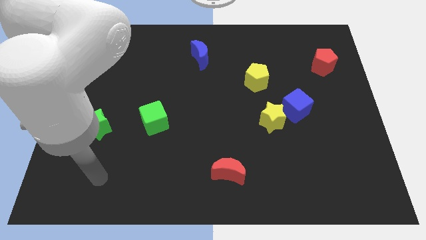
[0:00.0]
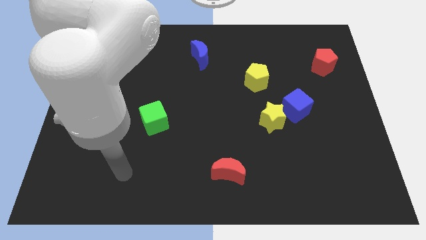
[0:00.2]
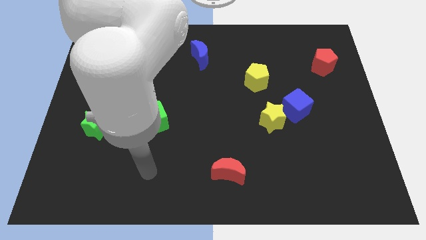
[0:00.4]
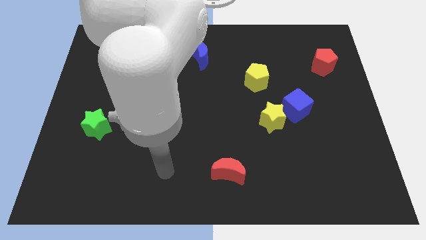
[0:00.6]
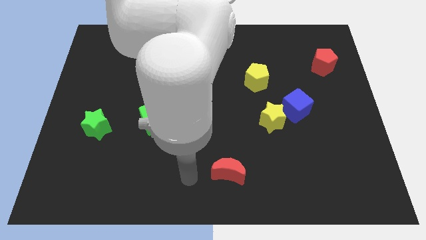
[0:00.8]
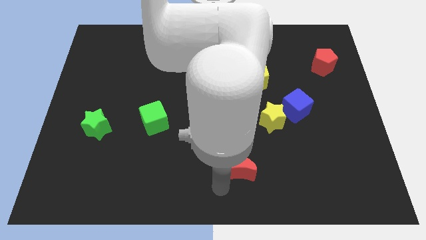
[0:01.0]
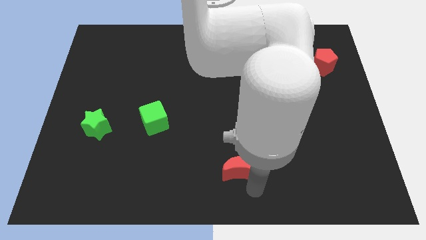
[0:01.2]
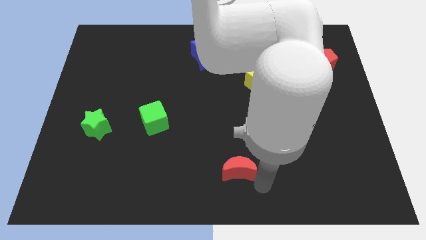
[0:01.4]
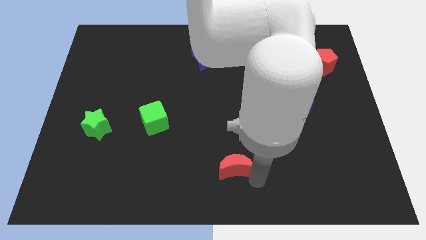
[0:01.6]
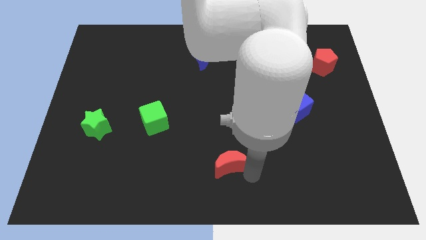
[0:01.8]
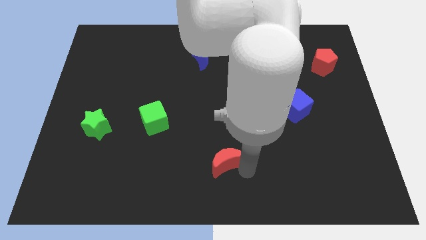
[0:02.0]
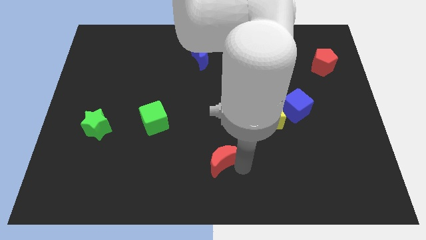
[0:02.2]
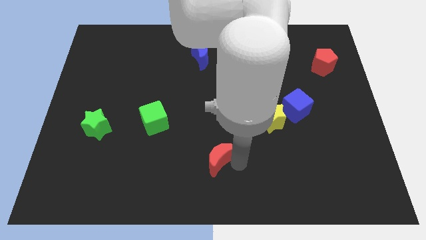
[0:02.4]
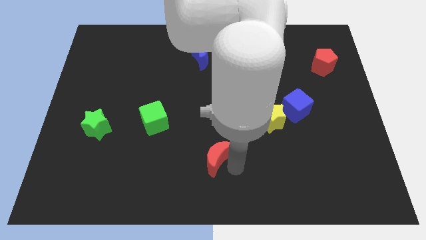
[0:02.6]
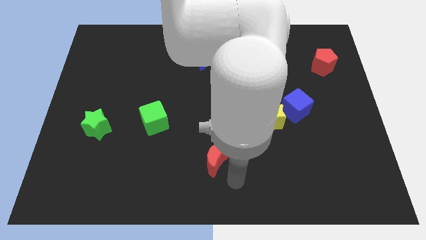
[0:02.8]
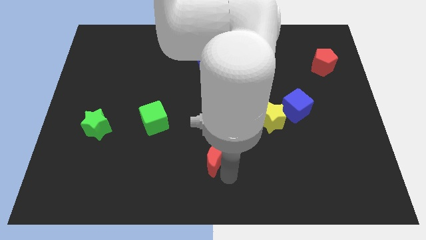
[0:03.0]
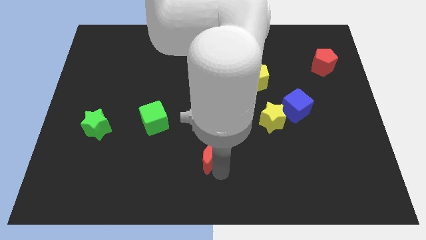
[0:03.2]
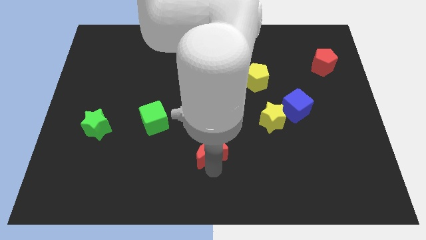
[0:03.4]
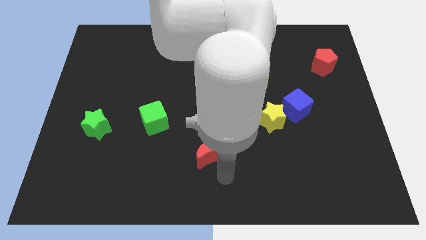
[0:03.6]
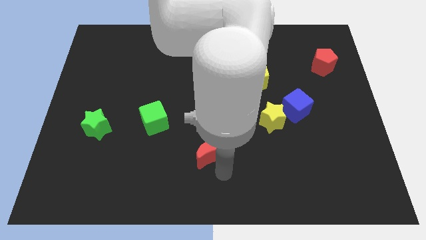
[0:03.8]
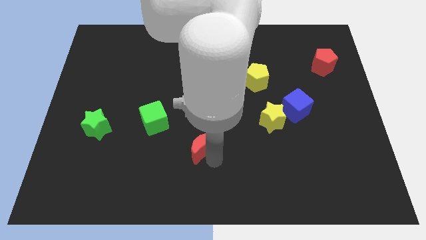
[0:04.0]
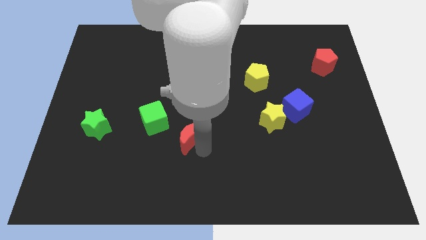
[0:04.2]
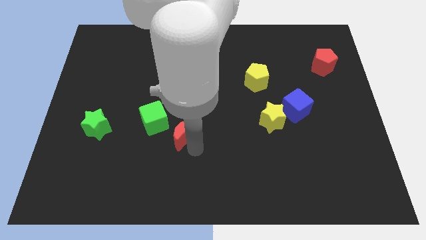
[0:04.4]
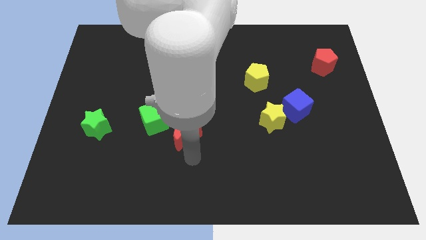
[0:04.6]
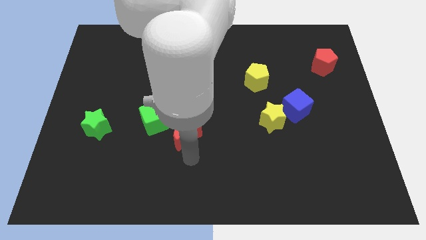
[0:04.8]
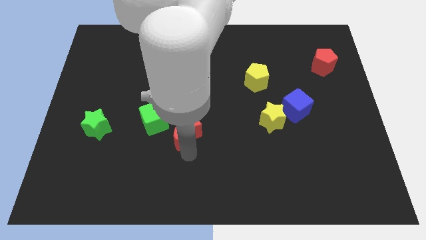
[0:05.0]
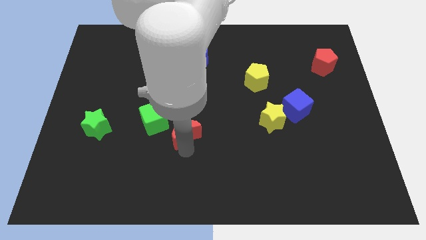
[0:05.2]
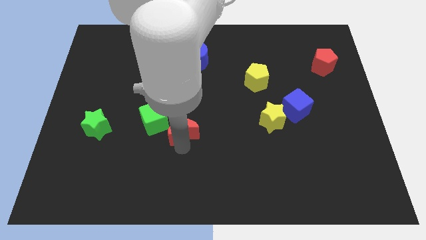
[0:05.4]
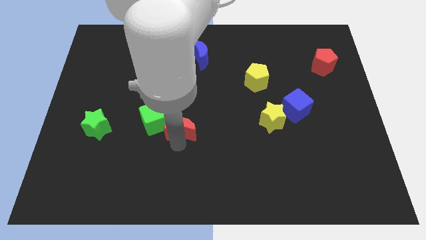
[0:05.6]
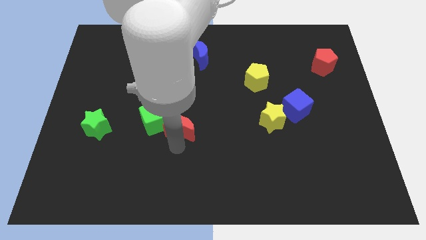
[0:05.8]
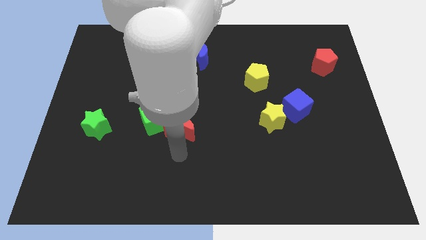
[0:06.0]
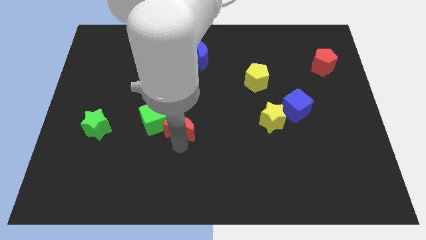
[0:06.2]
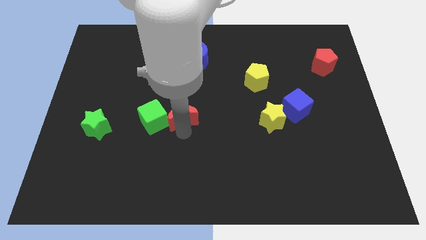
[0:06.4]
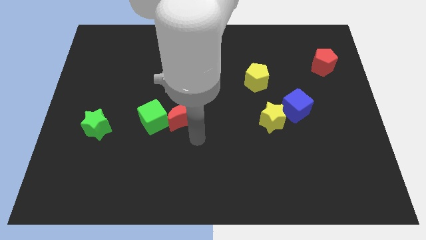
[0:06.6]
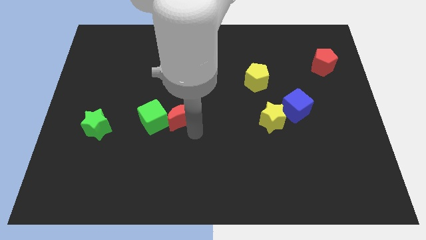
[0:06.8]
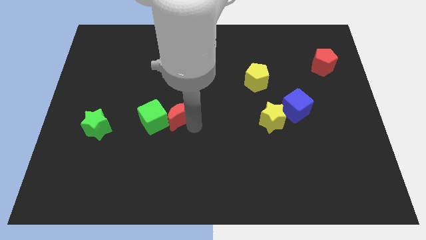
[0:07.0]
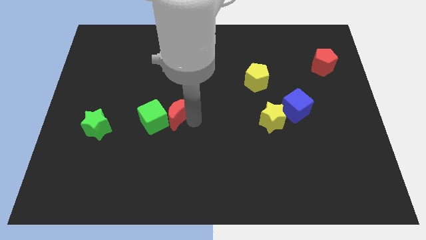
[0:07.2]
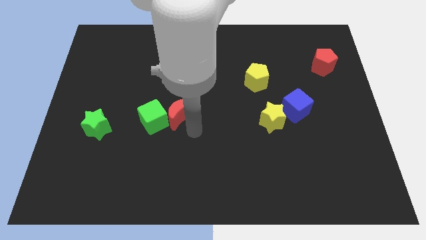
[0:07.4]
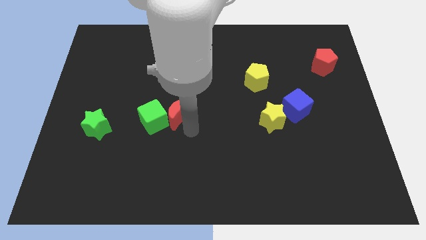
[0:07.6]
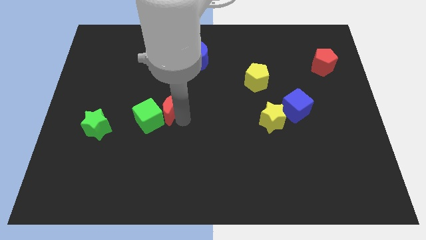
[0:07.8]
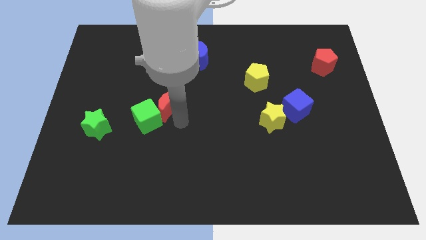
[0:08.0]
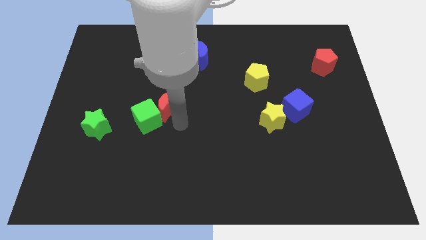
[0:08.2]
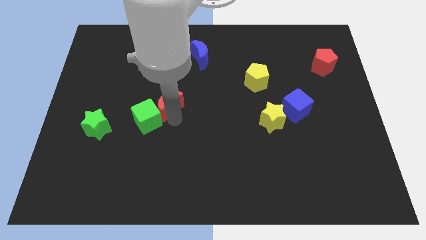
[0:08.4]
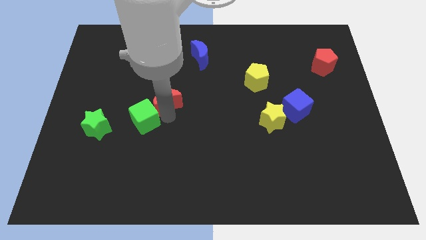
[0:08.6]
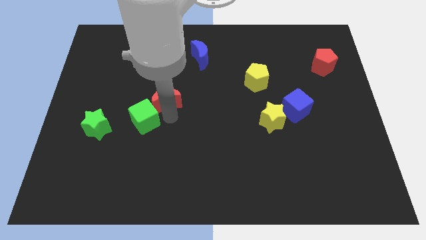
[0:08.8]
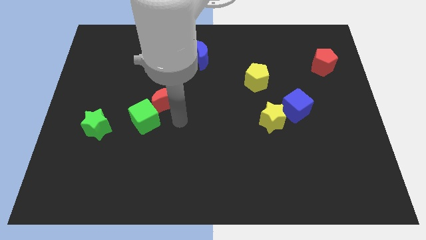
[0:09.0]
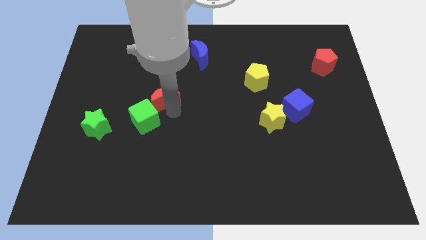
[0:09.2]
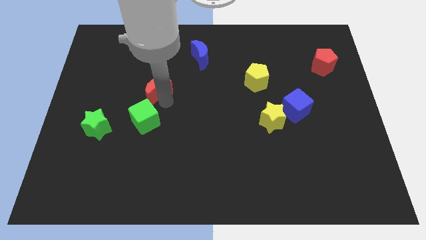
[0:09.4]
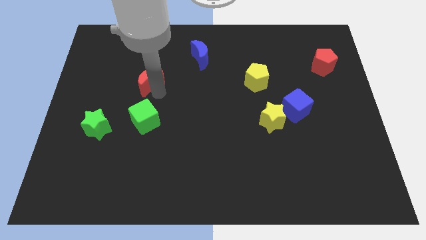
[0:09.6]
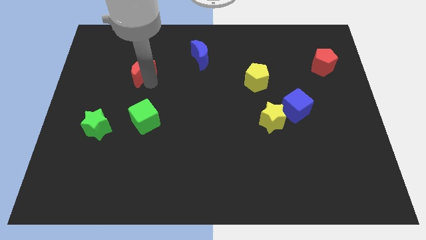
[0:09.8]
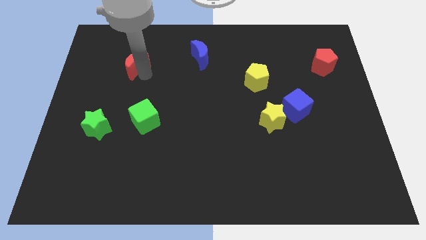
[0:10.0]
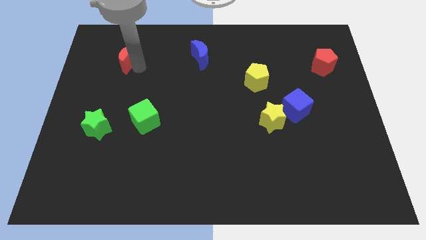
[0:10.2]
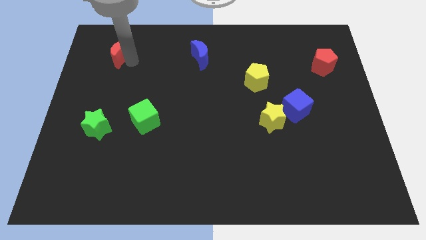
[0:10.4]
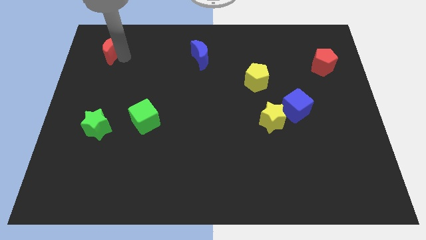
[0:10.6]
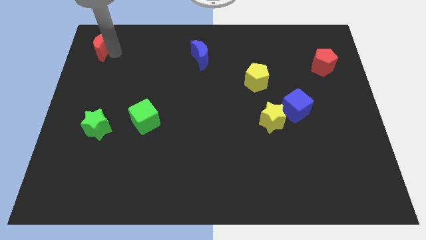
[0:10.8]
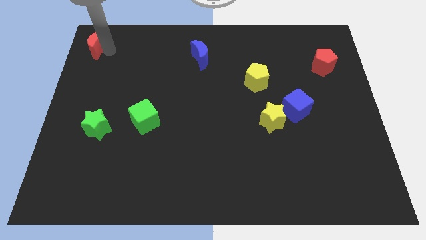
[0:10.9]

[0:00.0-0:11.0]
move the red moon to the top left of the board

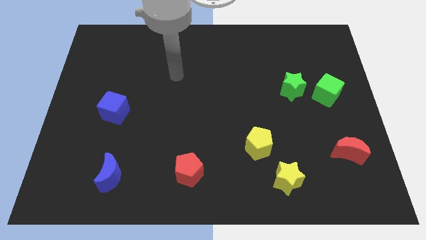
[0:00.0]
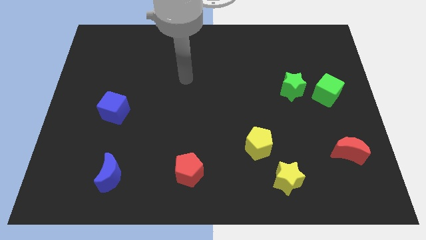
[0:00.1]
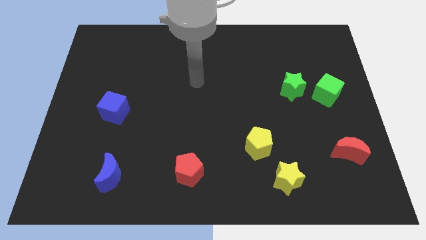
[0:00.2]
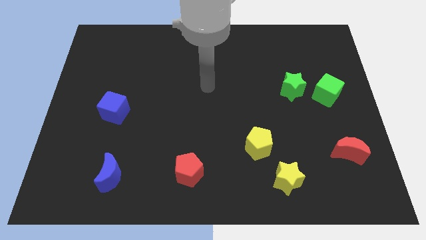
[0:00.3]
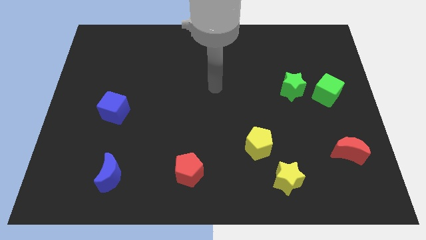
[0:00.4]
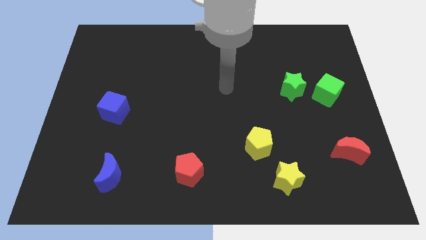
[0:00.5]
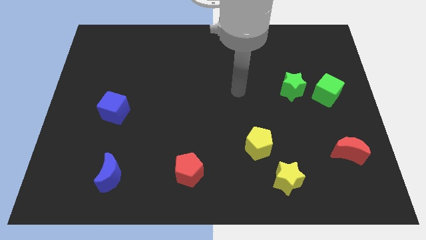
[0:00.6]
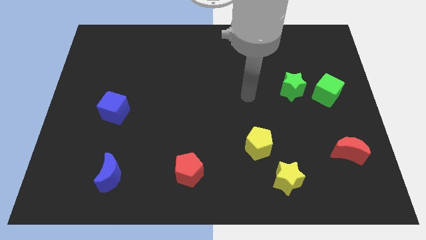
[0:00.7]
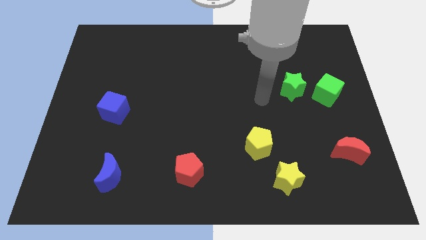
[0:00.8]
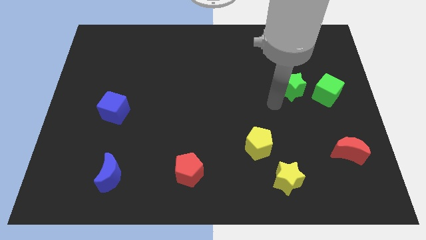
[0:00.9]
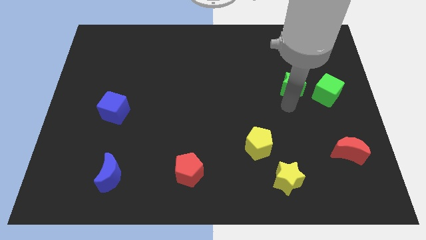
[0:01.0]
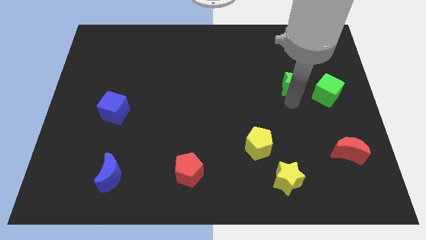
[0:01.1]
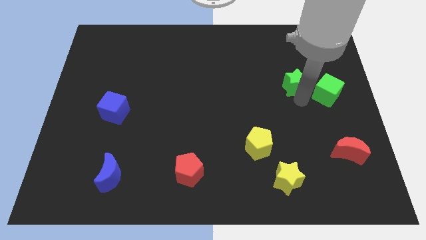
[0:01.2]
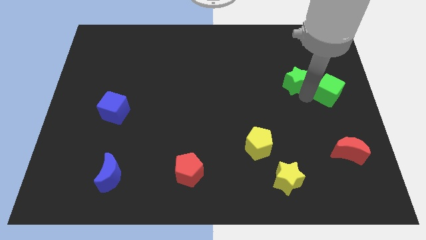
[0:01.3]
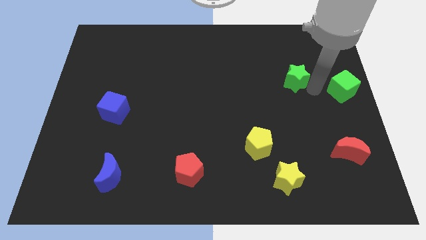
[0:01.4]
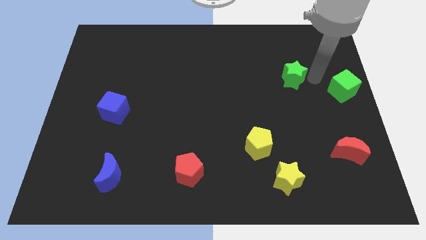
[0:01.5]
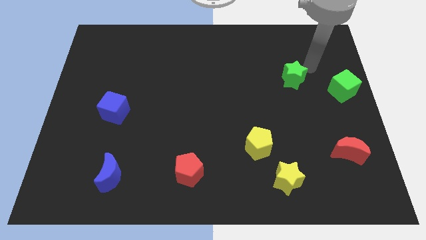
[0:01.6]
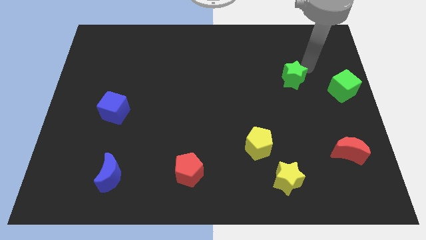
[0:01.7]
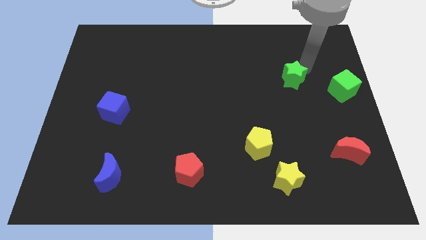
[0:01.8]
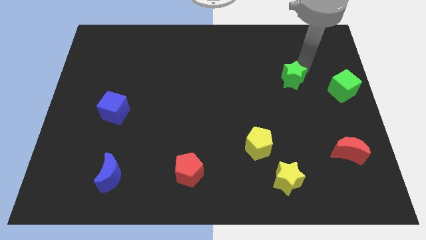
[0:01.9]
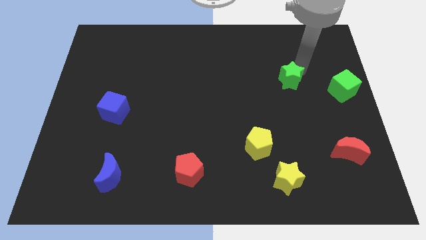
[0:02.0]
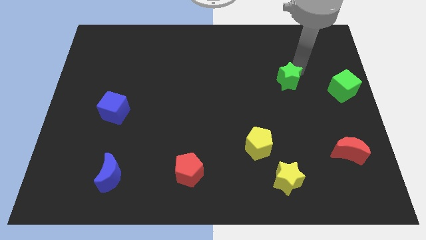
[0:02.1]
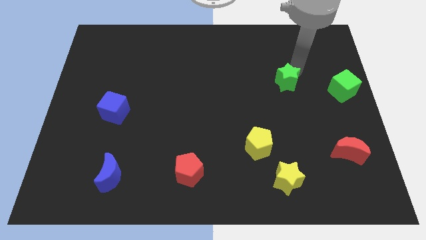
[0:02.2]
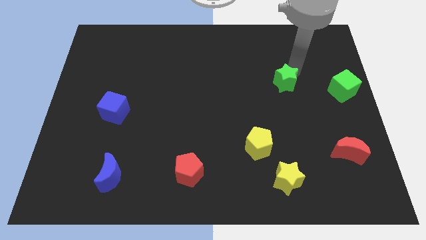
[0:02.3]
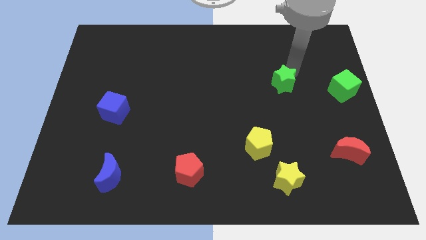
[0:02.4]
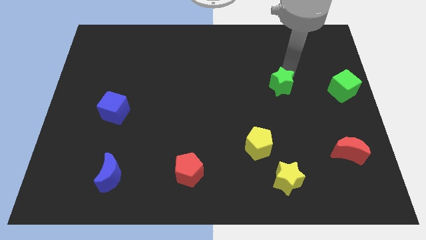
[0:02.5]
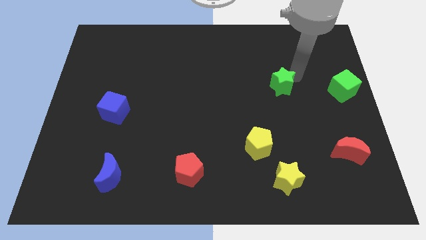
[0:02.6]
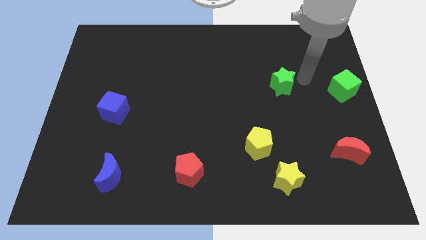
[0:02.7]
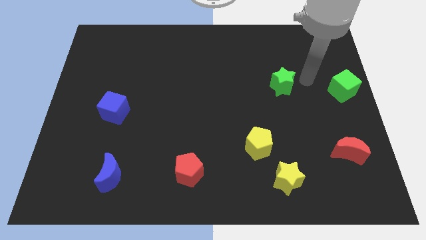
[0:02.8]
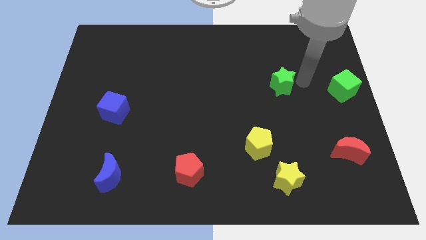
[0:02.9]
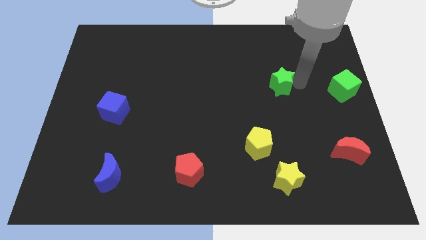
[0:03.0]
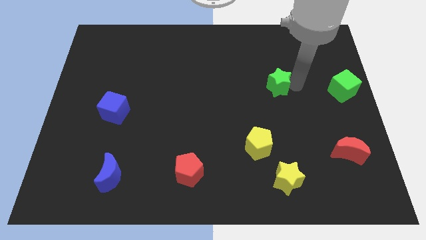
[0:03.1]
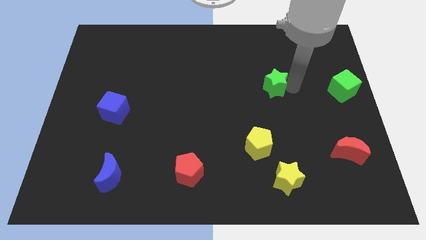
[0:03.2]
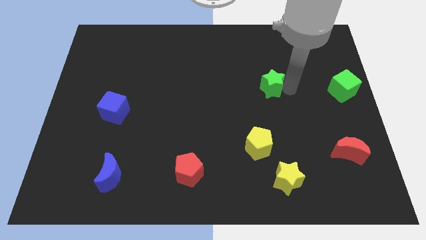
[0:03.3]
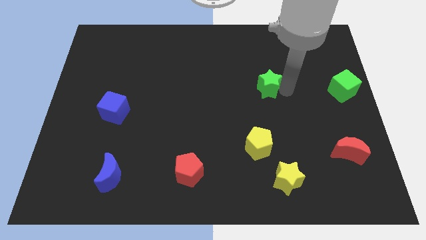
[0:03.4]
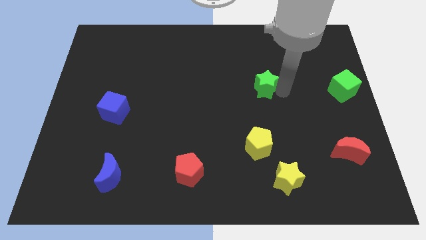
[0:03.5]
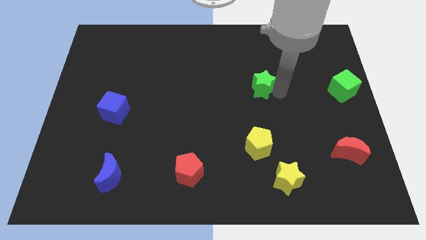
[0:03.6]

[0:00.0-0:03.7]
push the green star to the middle of the board
